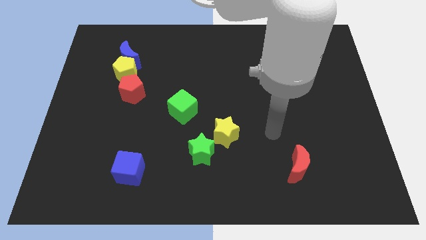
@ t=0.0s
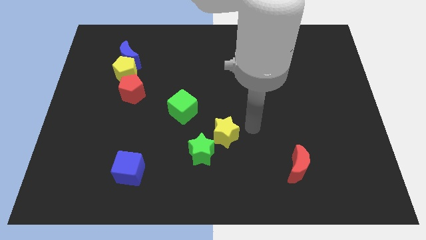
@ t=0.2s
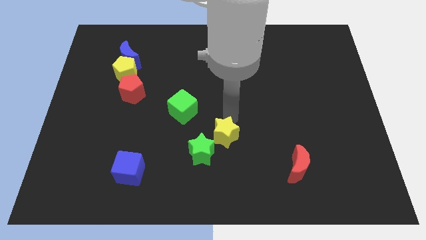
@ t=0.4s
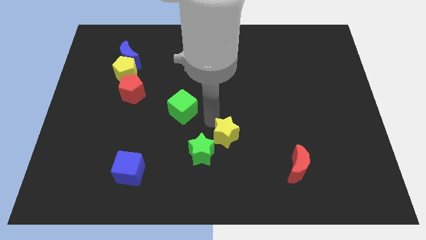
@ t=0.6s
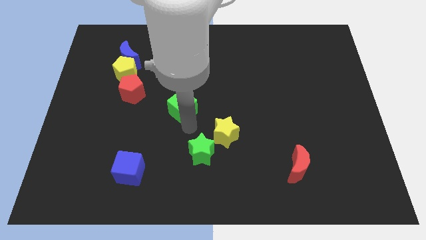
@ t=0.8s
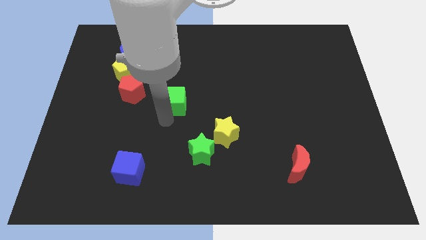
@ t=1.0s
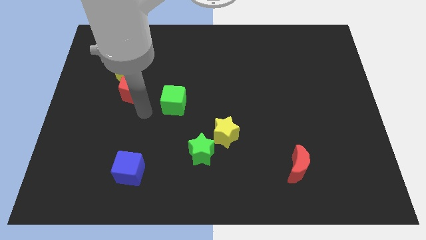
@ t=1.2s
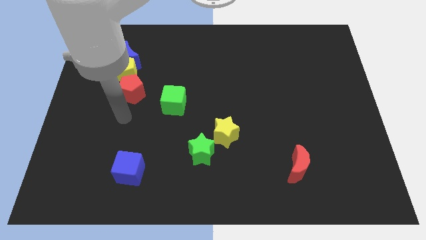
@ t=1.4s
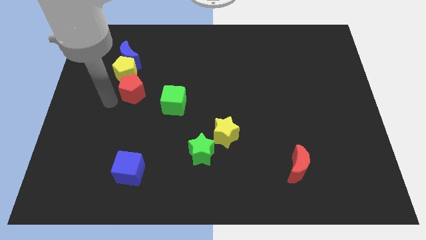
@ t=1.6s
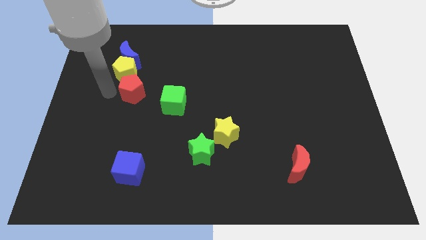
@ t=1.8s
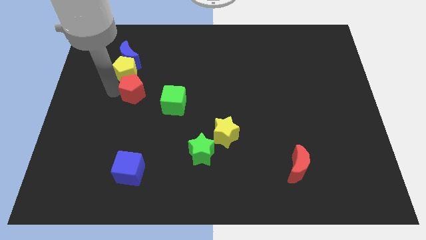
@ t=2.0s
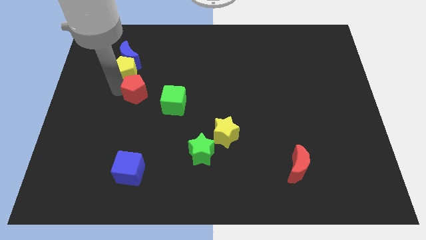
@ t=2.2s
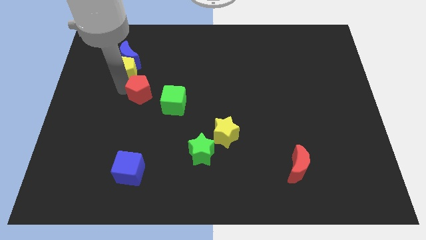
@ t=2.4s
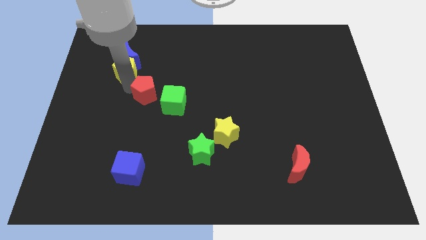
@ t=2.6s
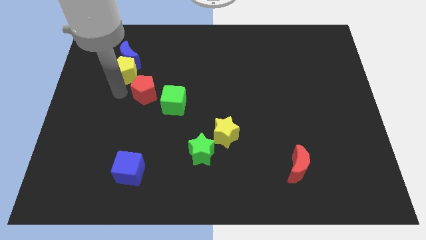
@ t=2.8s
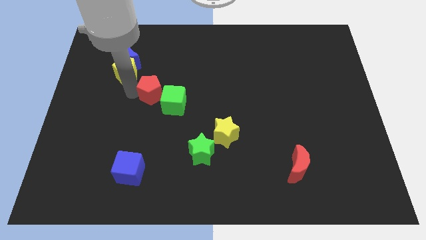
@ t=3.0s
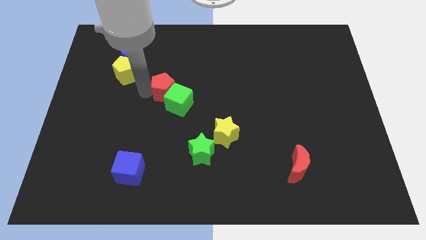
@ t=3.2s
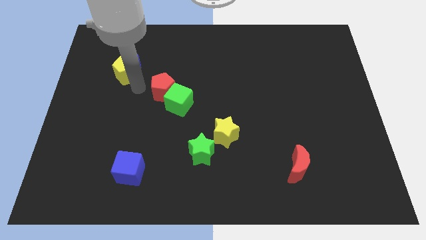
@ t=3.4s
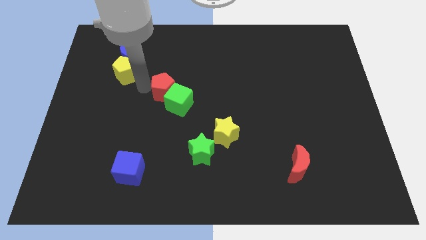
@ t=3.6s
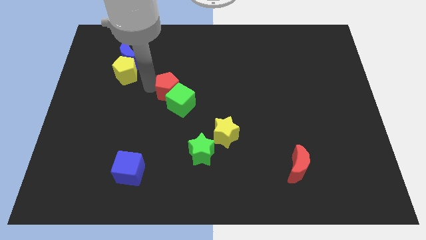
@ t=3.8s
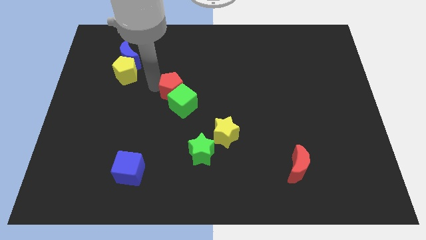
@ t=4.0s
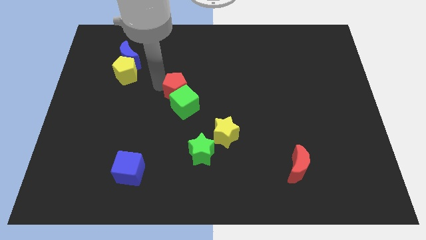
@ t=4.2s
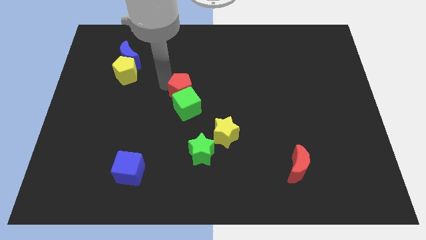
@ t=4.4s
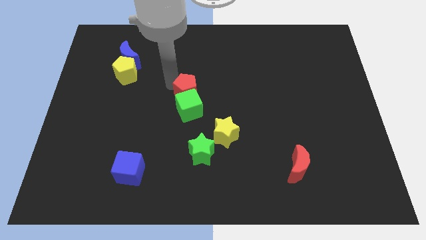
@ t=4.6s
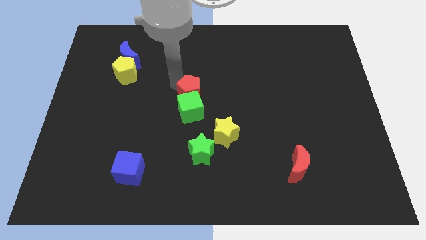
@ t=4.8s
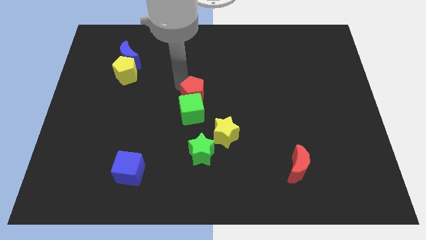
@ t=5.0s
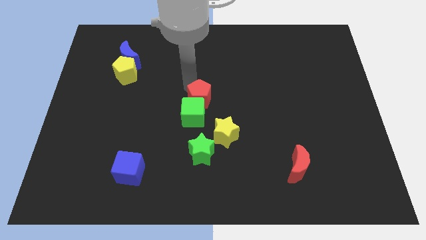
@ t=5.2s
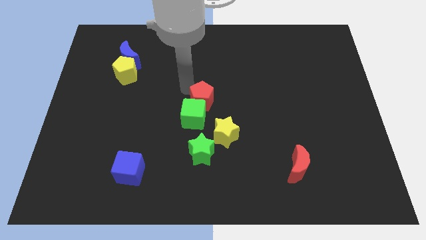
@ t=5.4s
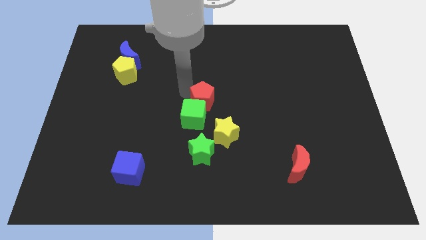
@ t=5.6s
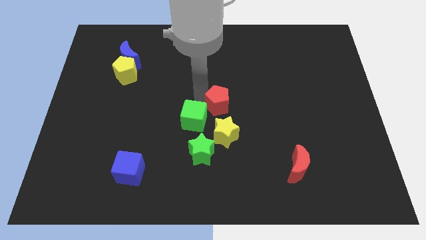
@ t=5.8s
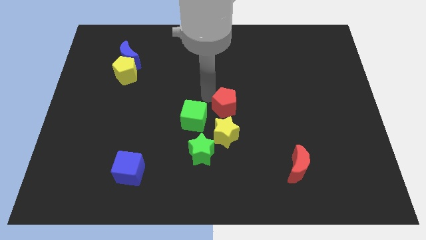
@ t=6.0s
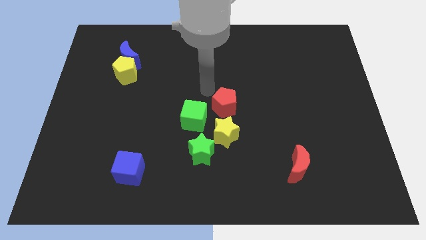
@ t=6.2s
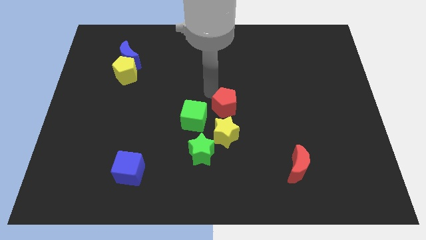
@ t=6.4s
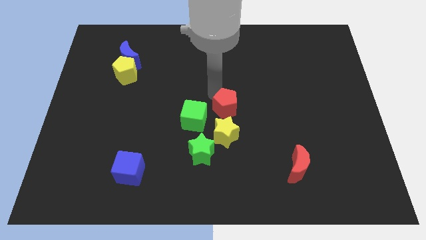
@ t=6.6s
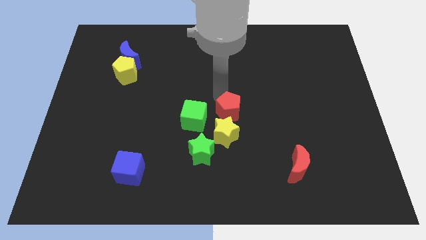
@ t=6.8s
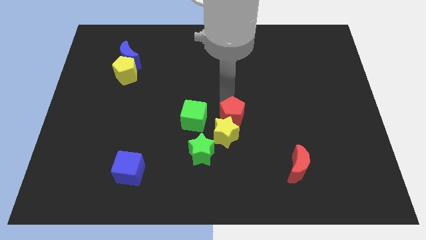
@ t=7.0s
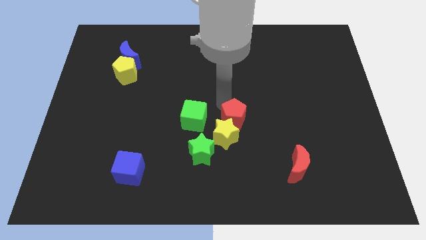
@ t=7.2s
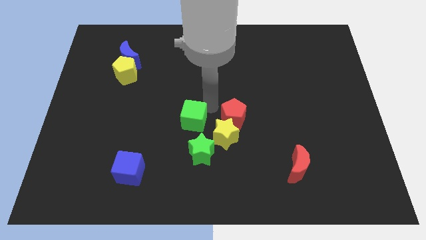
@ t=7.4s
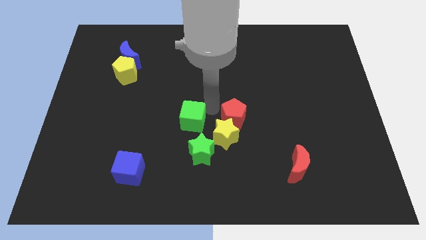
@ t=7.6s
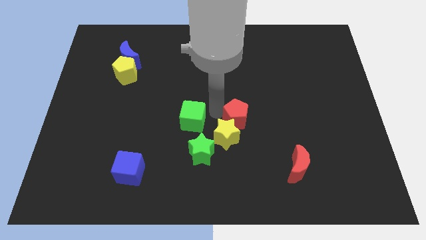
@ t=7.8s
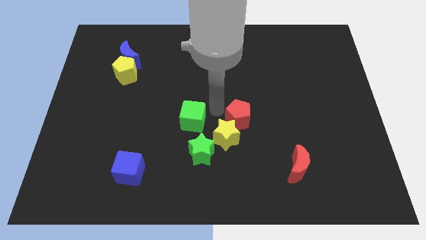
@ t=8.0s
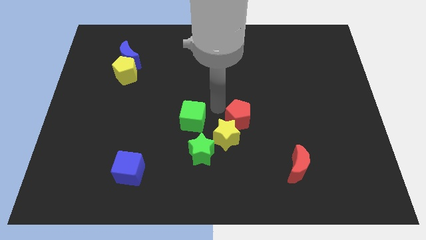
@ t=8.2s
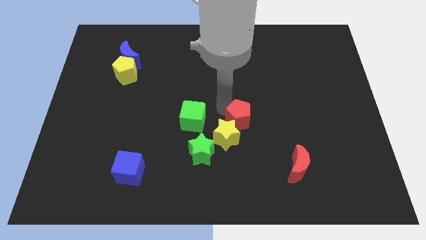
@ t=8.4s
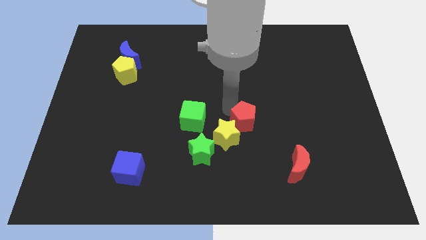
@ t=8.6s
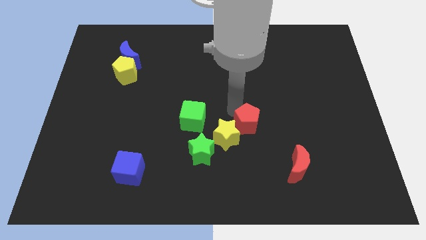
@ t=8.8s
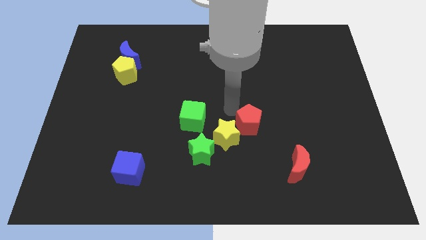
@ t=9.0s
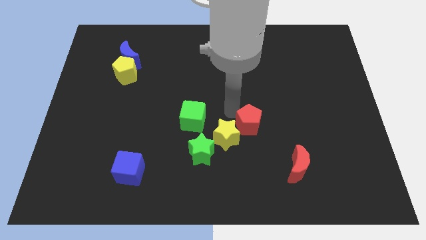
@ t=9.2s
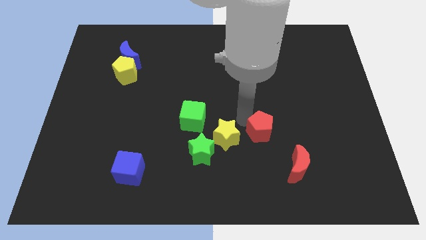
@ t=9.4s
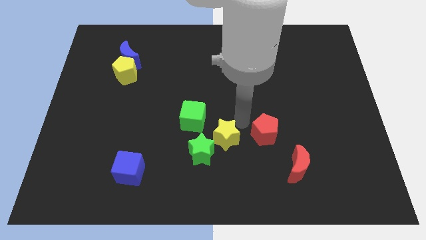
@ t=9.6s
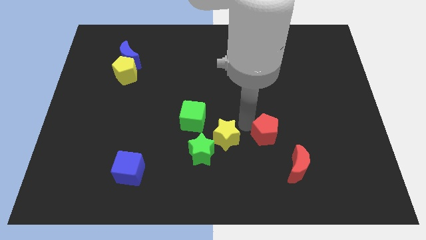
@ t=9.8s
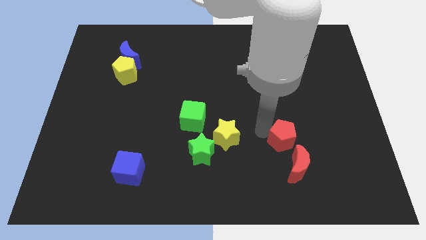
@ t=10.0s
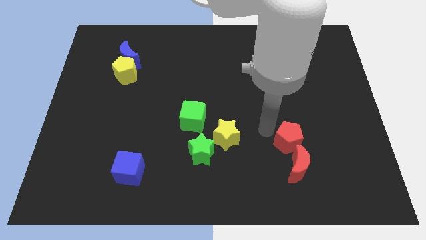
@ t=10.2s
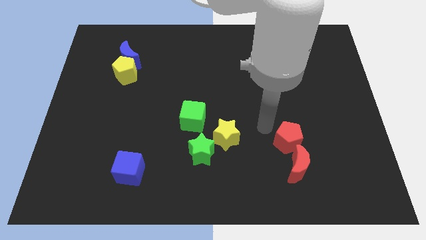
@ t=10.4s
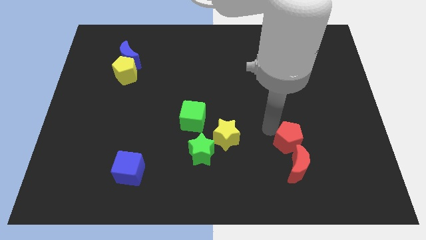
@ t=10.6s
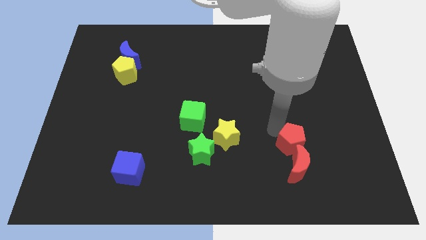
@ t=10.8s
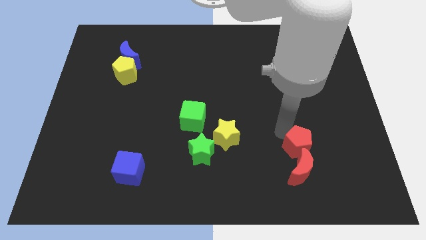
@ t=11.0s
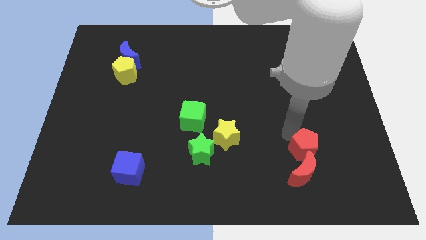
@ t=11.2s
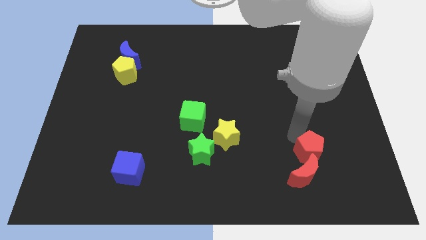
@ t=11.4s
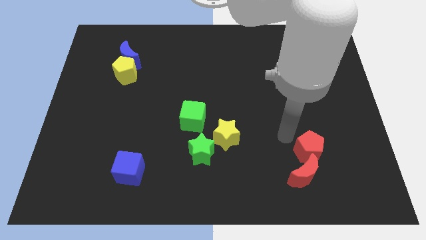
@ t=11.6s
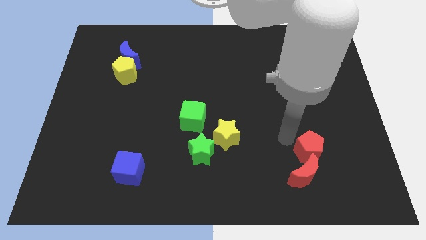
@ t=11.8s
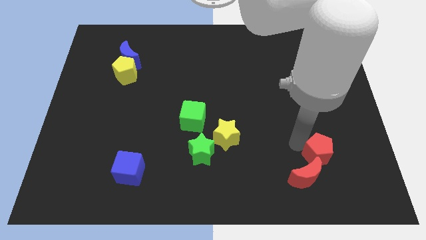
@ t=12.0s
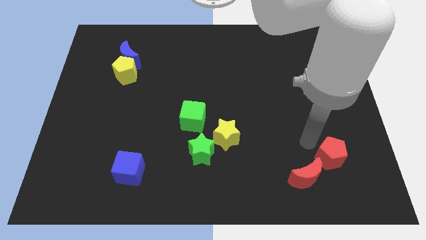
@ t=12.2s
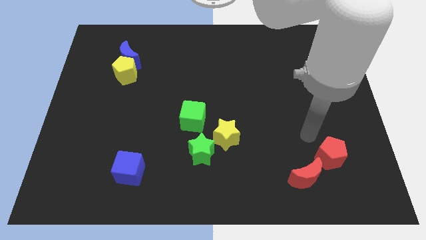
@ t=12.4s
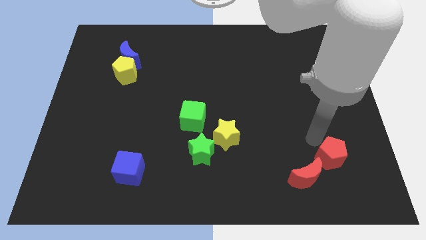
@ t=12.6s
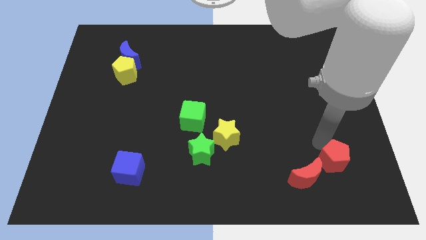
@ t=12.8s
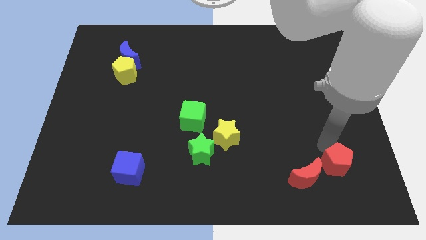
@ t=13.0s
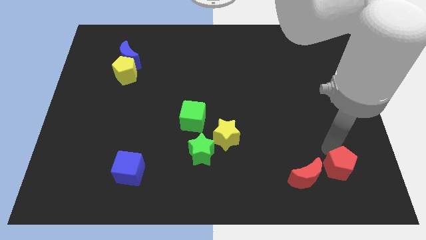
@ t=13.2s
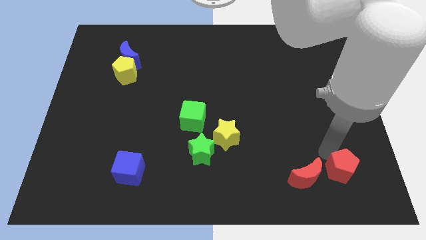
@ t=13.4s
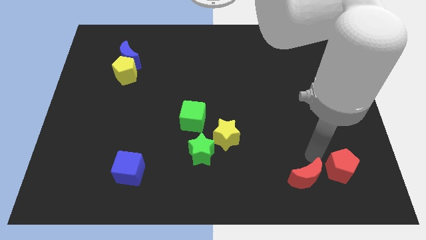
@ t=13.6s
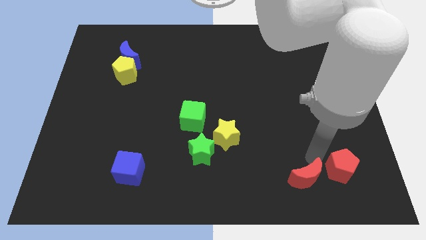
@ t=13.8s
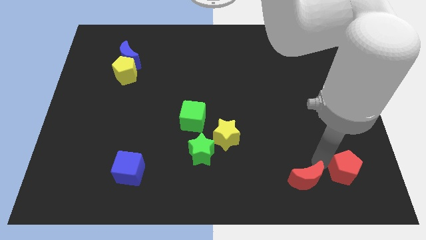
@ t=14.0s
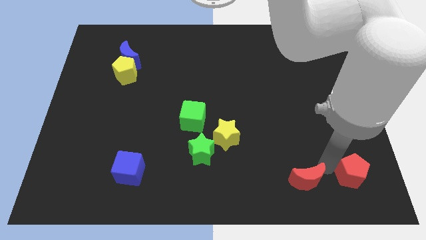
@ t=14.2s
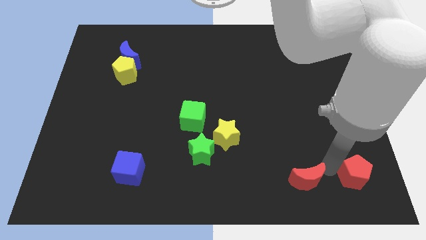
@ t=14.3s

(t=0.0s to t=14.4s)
slide the red pentagon to the bottom right
